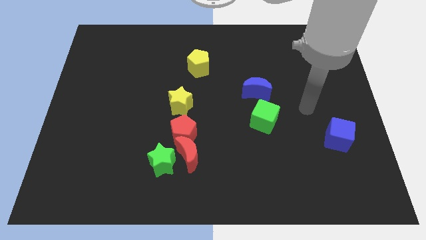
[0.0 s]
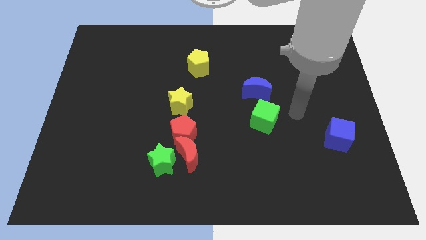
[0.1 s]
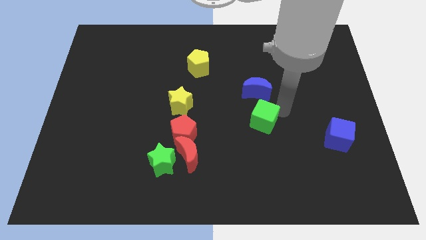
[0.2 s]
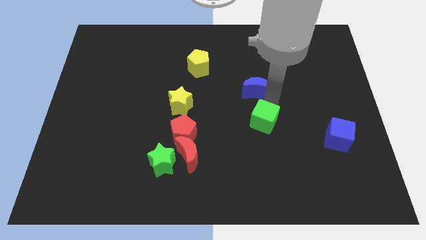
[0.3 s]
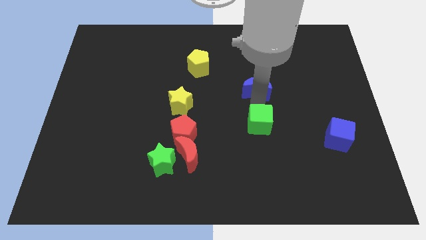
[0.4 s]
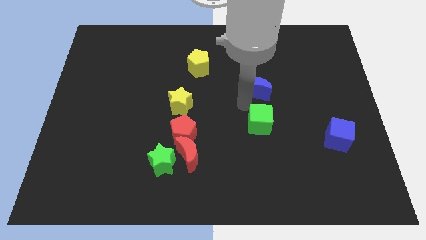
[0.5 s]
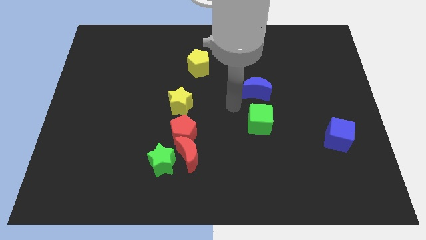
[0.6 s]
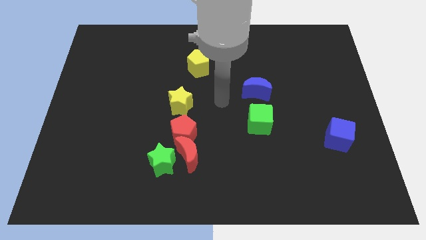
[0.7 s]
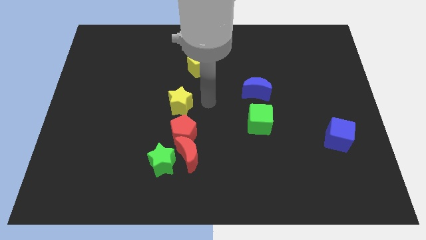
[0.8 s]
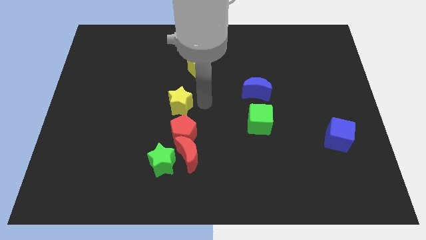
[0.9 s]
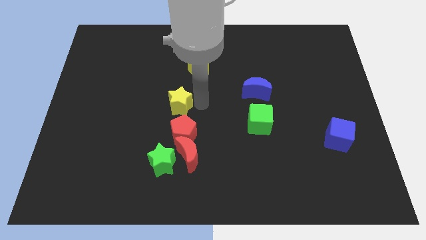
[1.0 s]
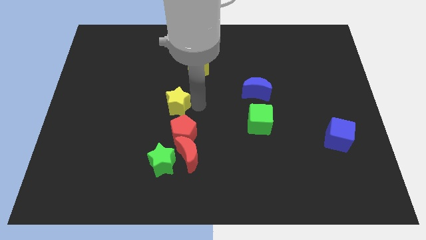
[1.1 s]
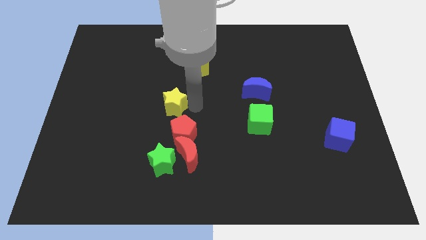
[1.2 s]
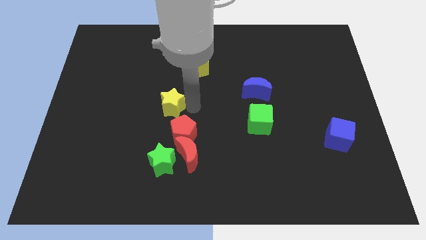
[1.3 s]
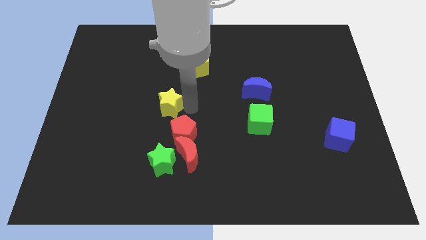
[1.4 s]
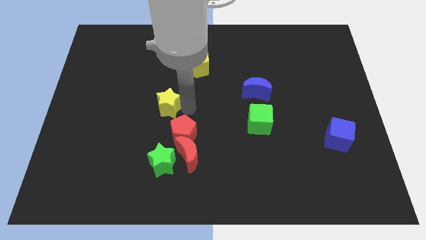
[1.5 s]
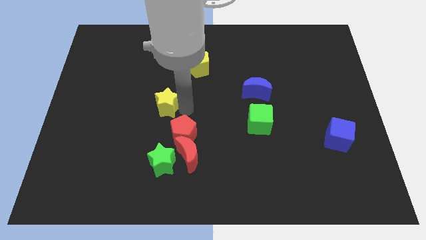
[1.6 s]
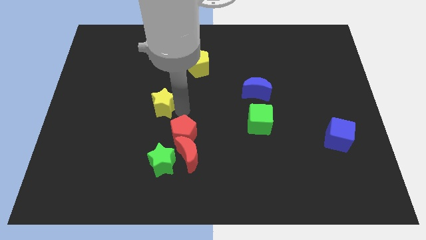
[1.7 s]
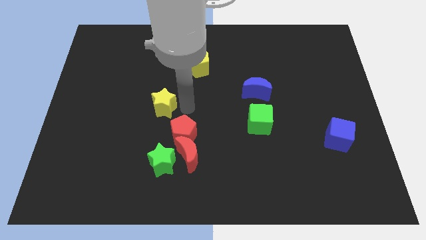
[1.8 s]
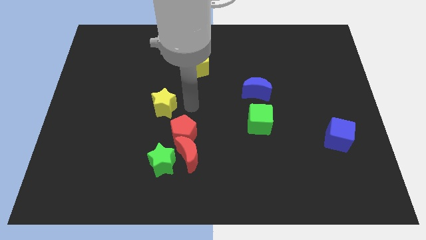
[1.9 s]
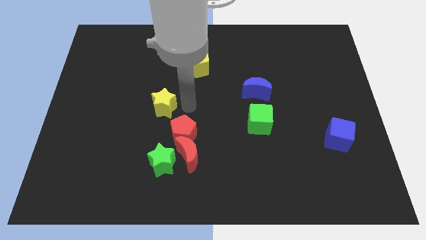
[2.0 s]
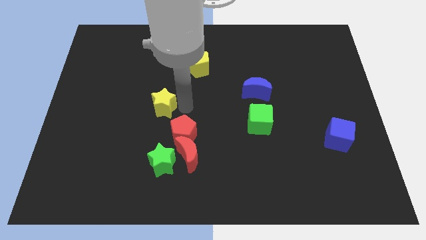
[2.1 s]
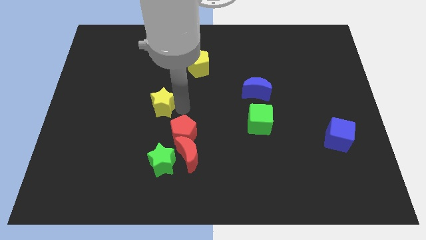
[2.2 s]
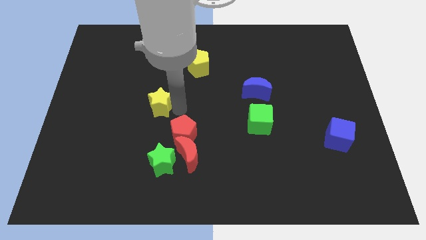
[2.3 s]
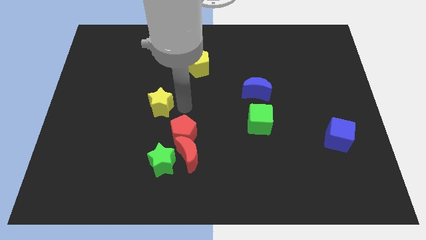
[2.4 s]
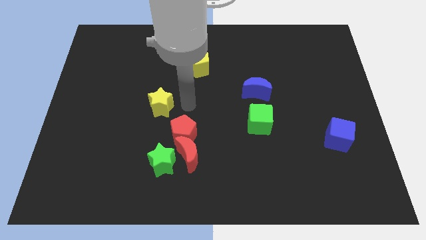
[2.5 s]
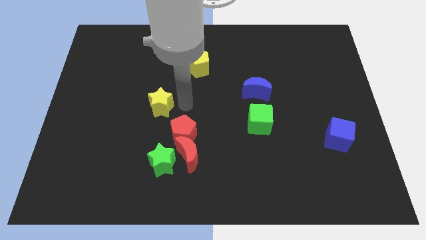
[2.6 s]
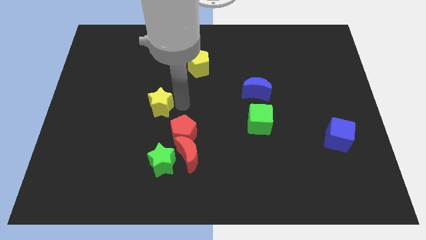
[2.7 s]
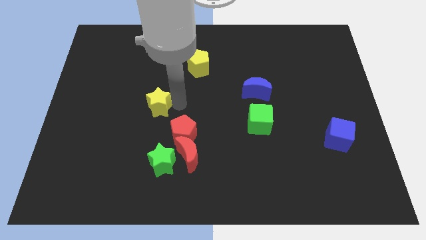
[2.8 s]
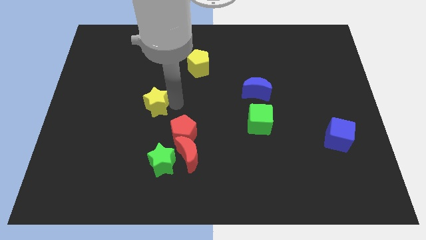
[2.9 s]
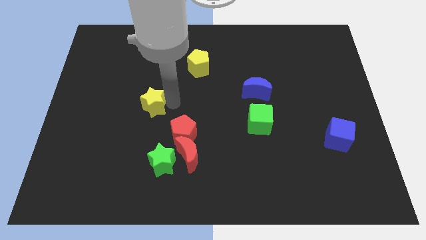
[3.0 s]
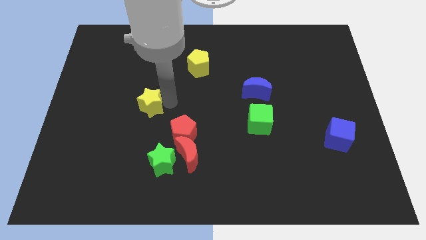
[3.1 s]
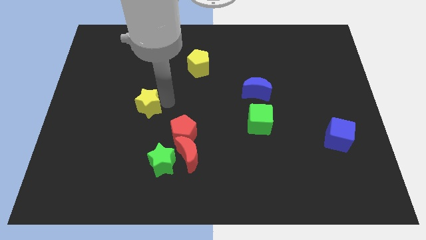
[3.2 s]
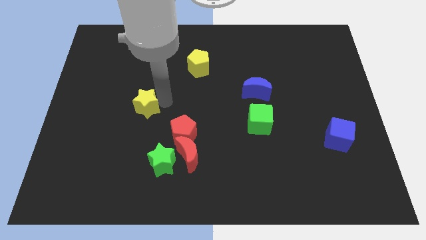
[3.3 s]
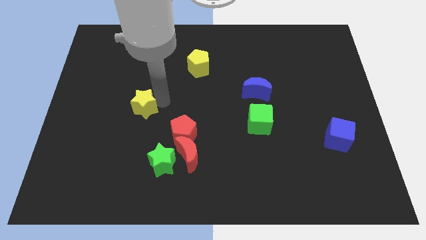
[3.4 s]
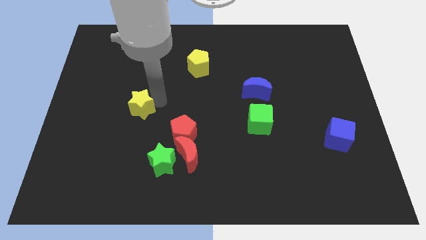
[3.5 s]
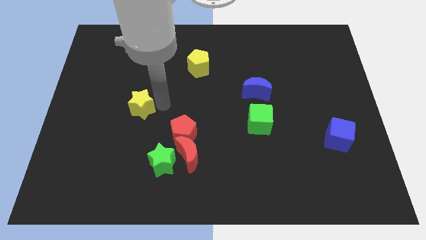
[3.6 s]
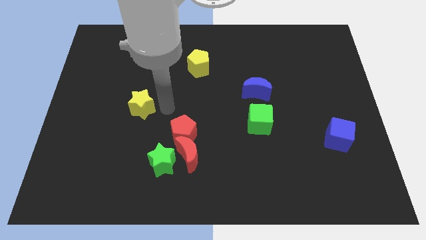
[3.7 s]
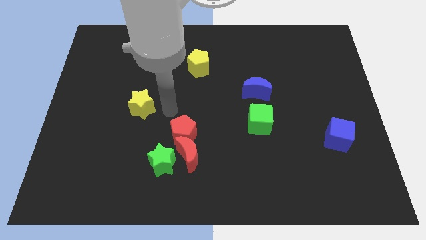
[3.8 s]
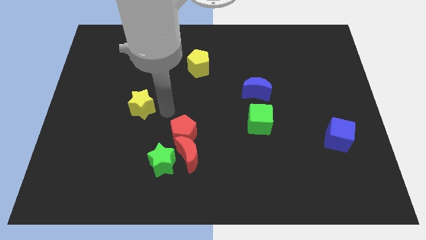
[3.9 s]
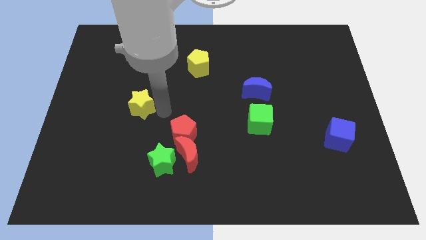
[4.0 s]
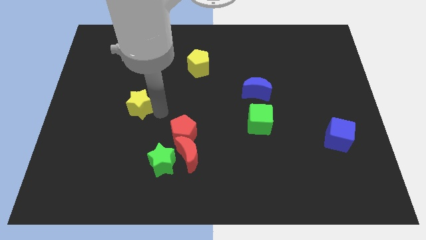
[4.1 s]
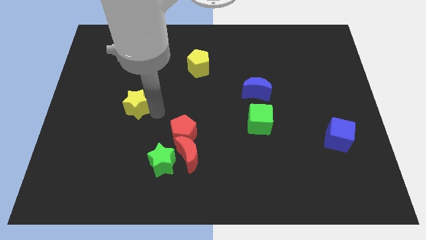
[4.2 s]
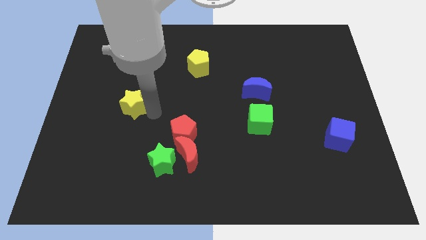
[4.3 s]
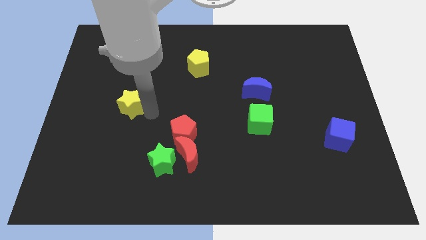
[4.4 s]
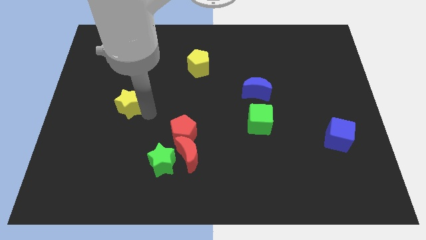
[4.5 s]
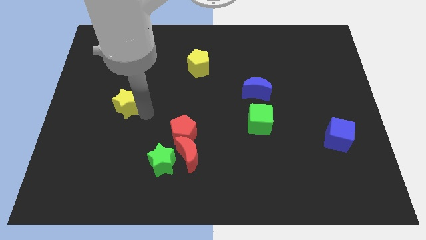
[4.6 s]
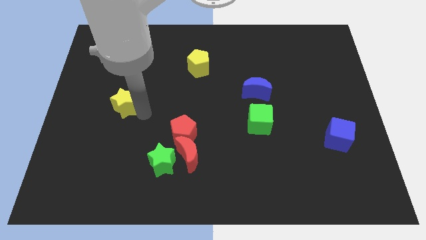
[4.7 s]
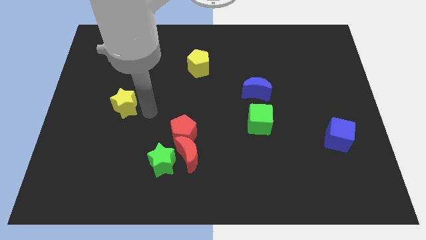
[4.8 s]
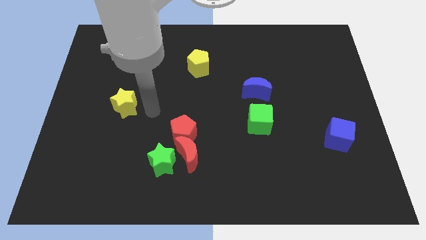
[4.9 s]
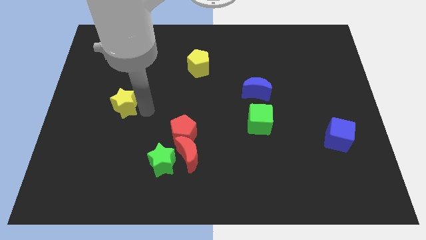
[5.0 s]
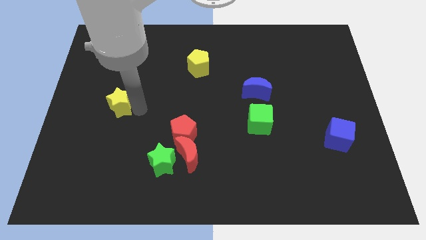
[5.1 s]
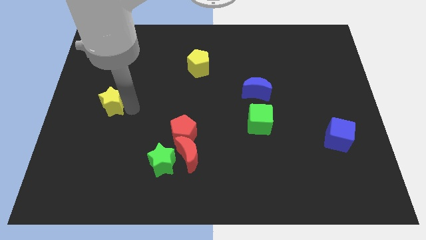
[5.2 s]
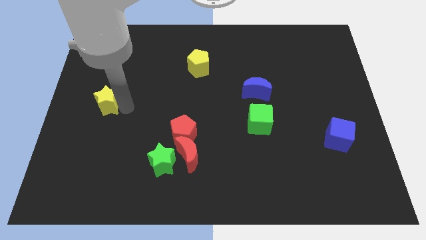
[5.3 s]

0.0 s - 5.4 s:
put the yellow star to the center left
